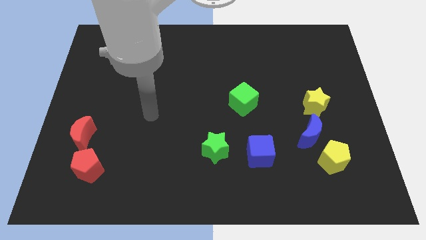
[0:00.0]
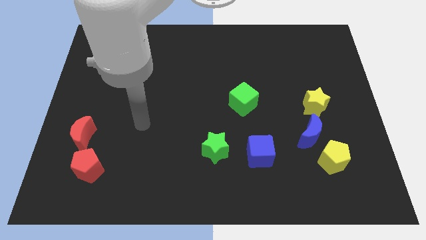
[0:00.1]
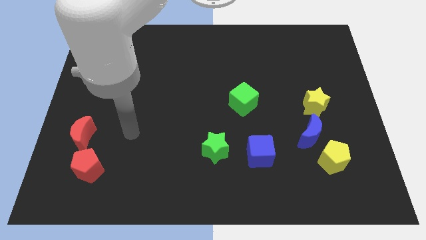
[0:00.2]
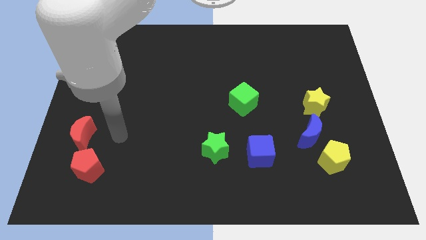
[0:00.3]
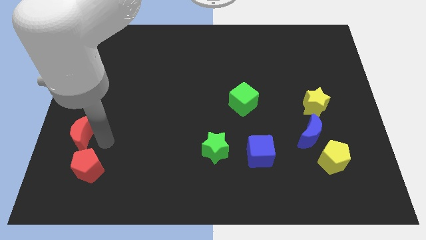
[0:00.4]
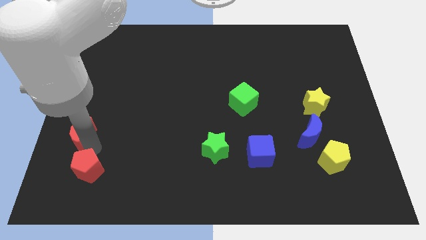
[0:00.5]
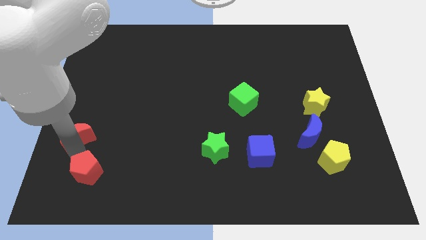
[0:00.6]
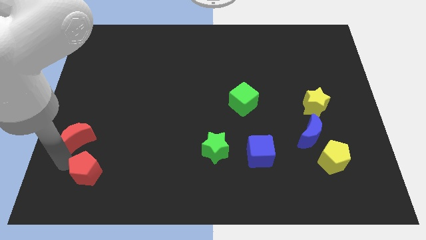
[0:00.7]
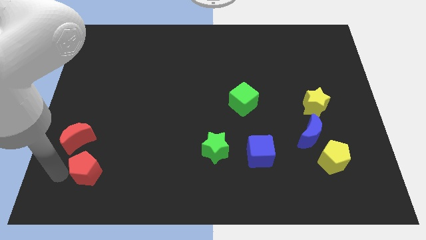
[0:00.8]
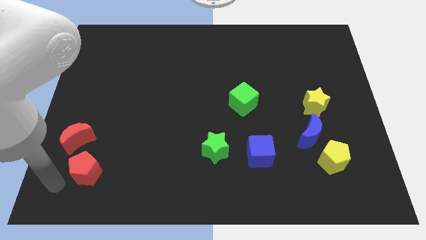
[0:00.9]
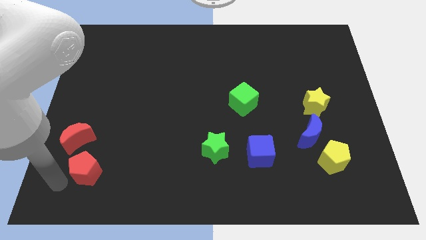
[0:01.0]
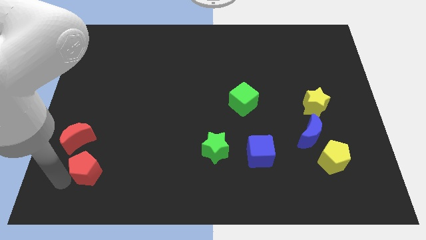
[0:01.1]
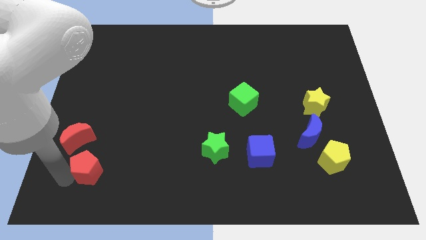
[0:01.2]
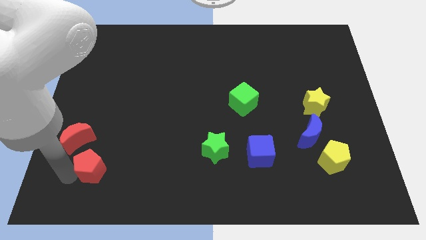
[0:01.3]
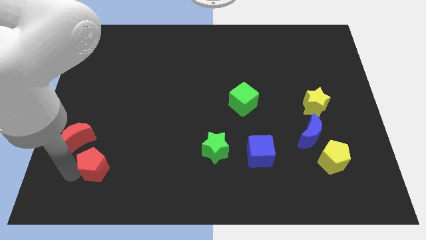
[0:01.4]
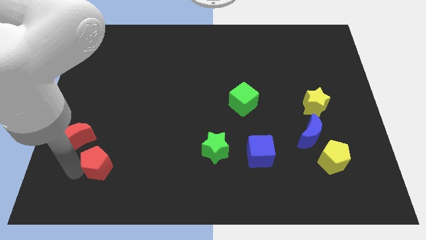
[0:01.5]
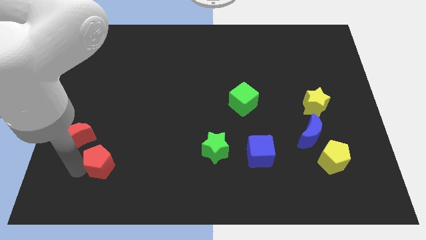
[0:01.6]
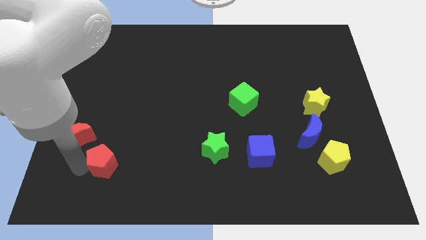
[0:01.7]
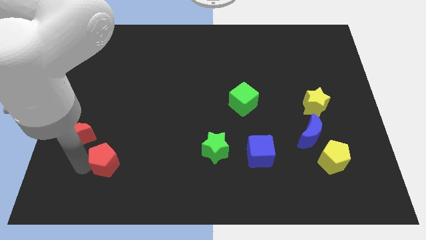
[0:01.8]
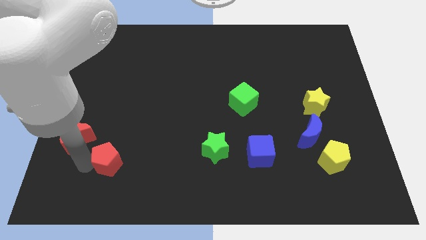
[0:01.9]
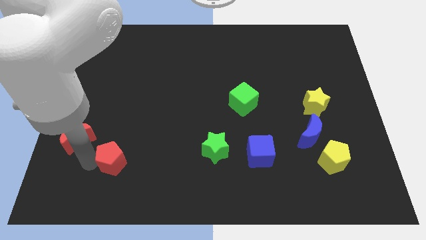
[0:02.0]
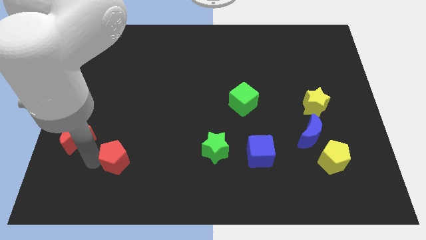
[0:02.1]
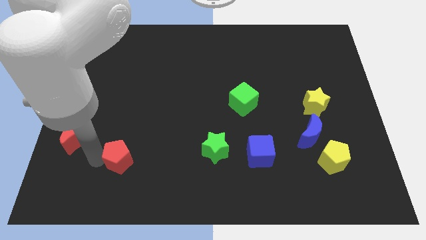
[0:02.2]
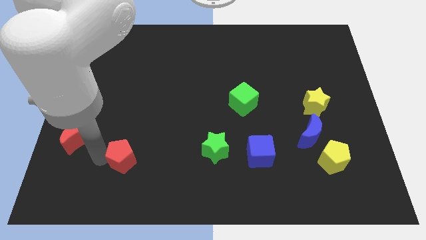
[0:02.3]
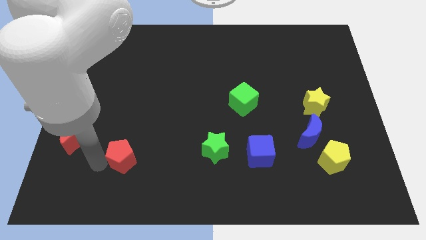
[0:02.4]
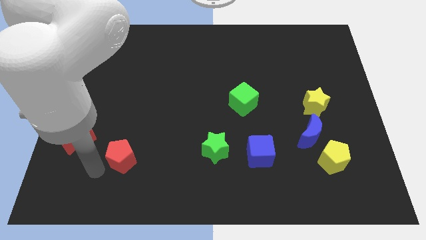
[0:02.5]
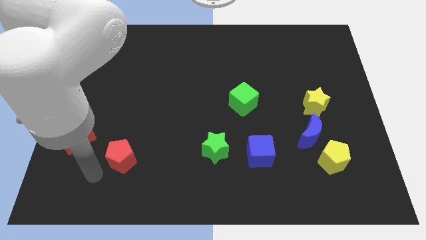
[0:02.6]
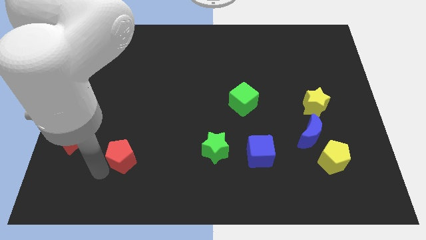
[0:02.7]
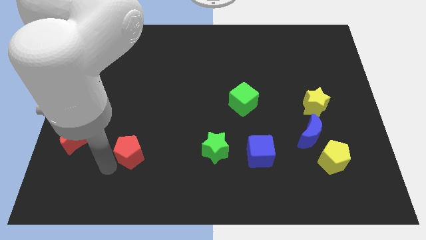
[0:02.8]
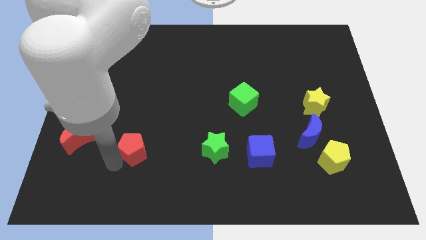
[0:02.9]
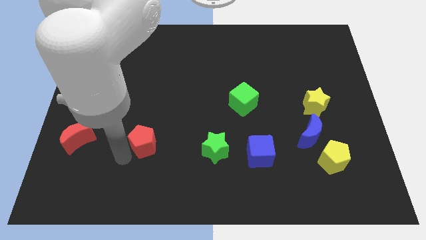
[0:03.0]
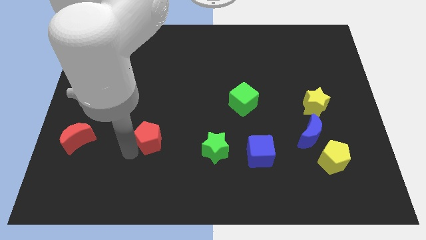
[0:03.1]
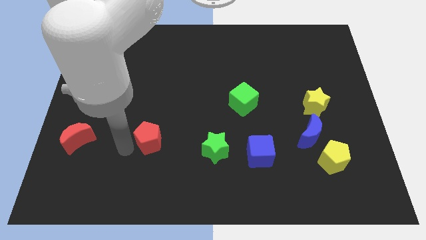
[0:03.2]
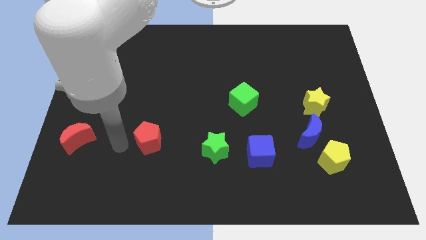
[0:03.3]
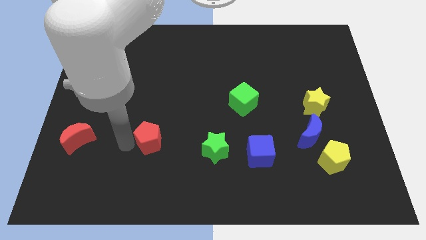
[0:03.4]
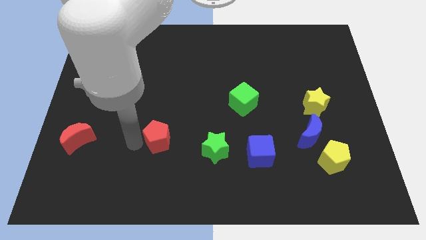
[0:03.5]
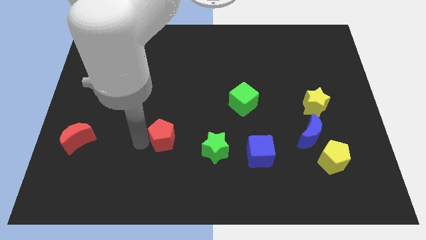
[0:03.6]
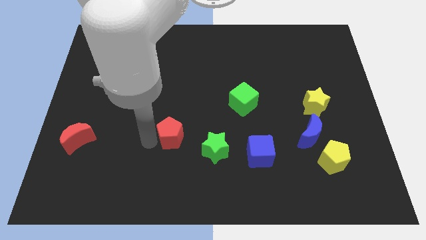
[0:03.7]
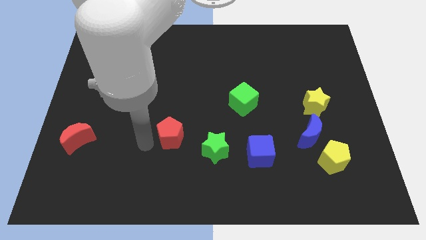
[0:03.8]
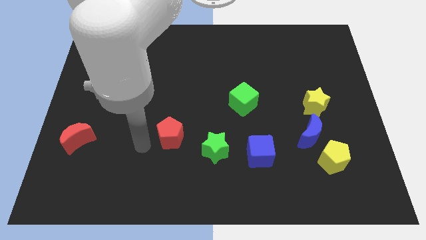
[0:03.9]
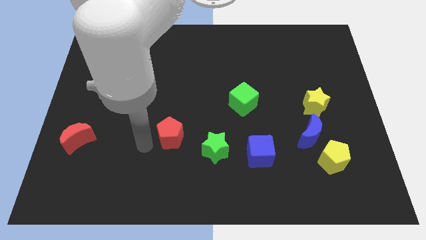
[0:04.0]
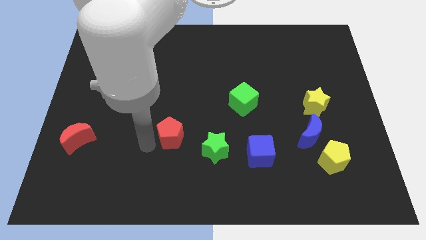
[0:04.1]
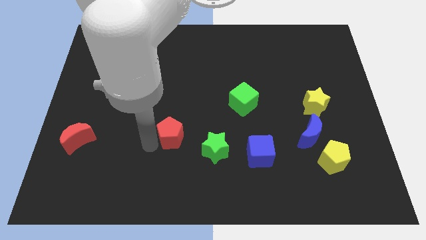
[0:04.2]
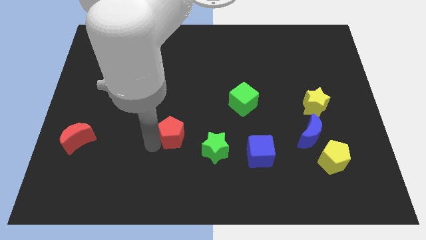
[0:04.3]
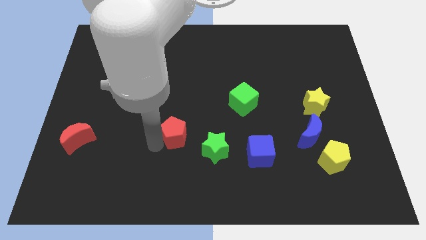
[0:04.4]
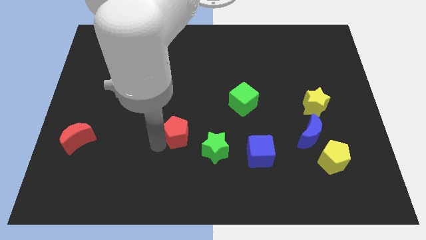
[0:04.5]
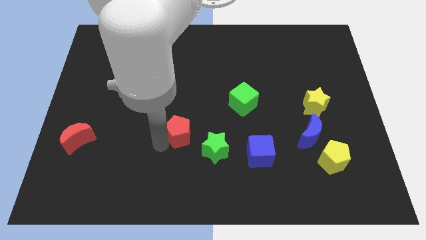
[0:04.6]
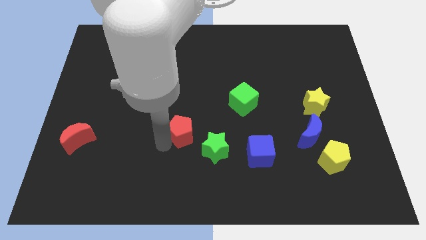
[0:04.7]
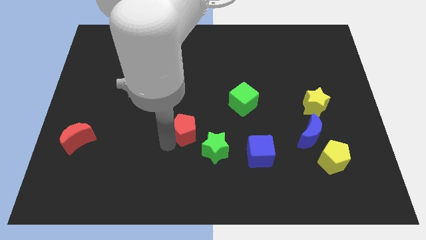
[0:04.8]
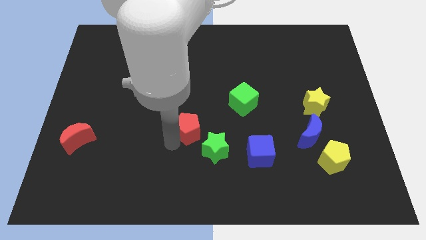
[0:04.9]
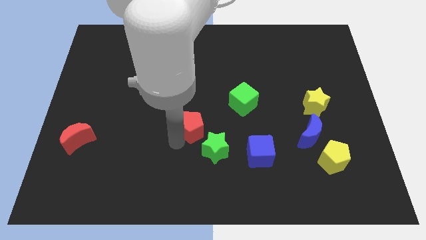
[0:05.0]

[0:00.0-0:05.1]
push the red pentagon above the green star

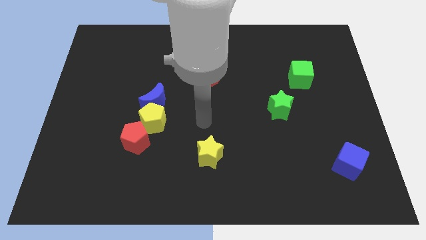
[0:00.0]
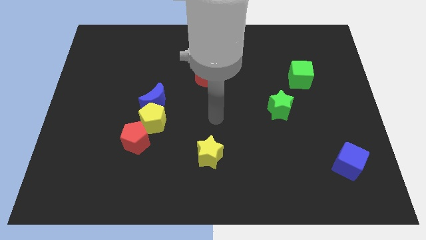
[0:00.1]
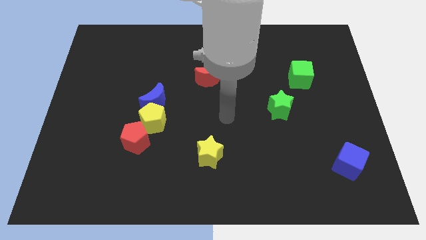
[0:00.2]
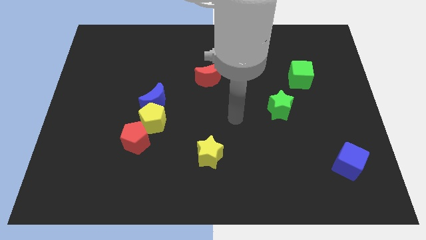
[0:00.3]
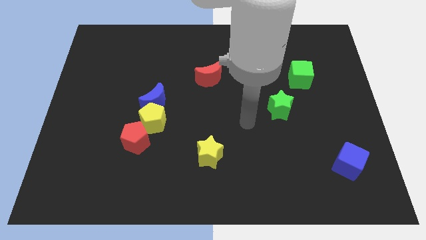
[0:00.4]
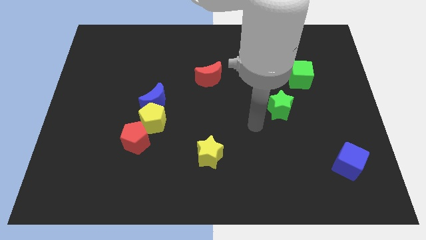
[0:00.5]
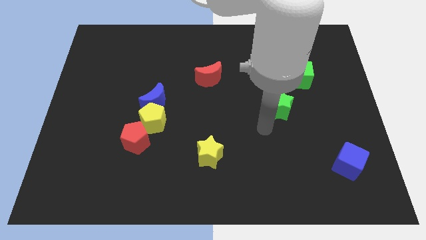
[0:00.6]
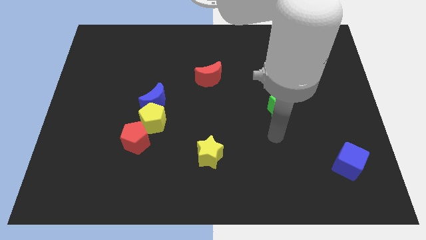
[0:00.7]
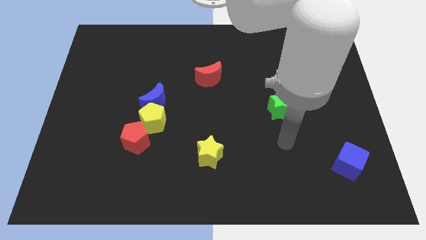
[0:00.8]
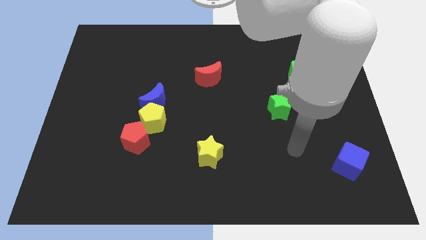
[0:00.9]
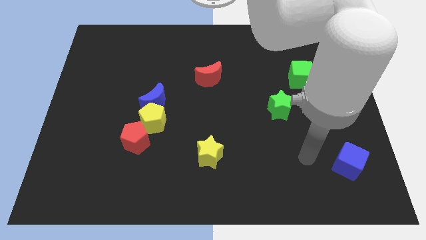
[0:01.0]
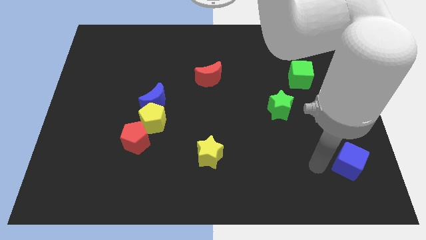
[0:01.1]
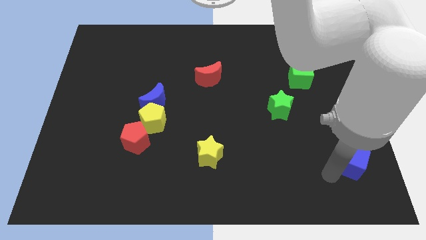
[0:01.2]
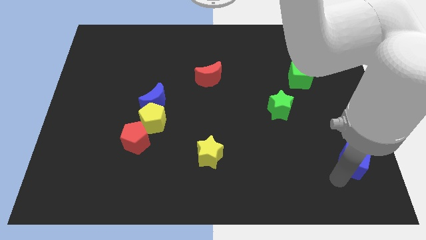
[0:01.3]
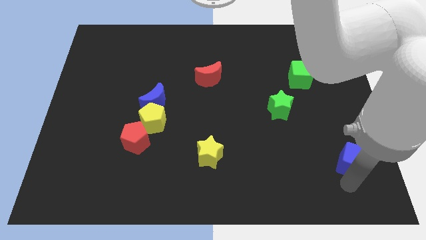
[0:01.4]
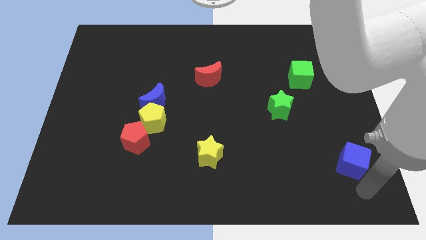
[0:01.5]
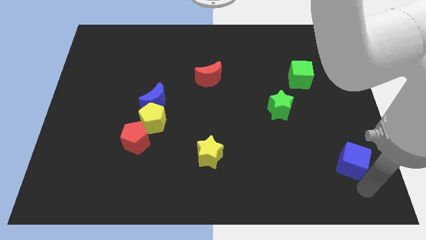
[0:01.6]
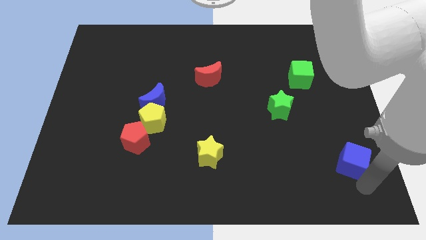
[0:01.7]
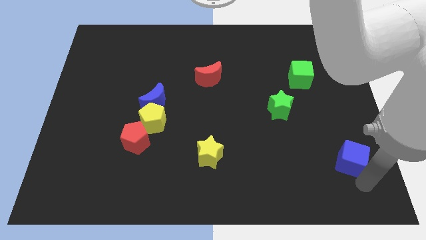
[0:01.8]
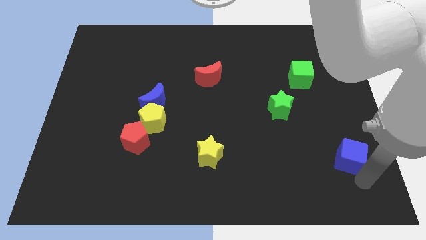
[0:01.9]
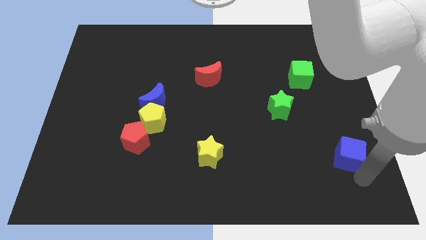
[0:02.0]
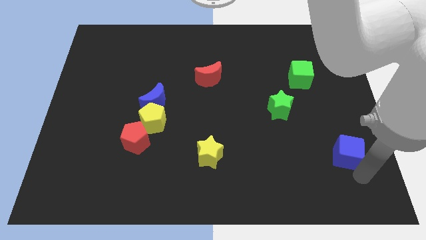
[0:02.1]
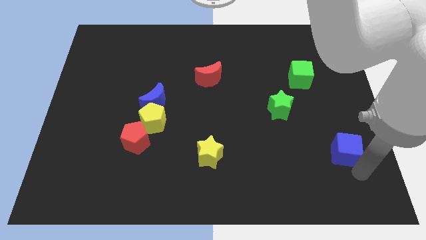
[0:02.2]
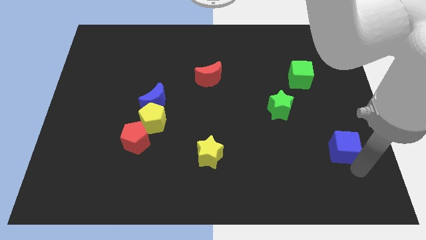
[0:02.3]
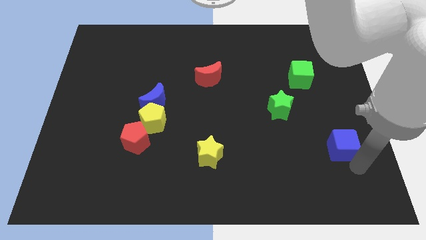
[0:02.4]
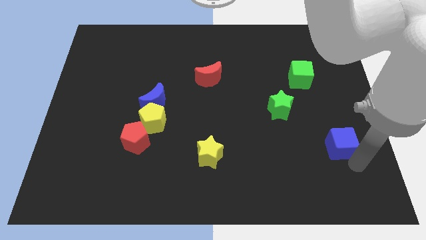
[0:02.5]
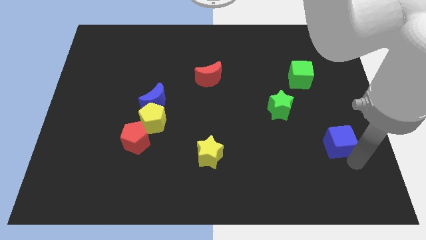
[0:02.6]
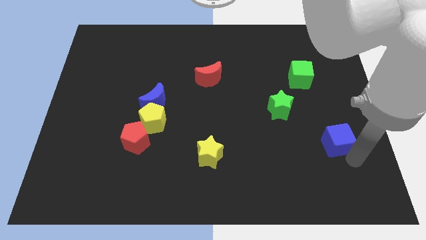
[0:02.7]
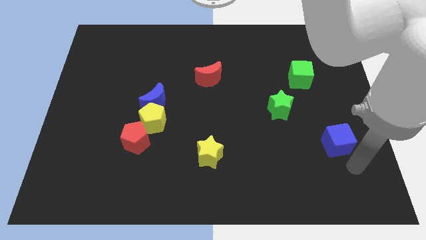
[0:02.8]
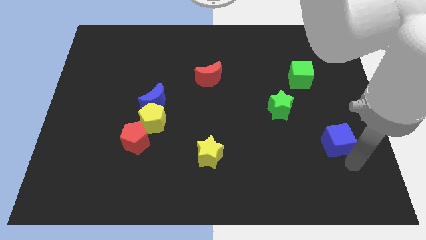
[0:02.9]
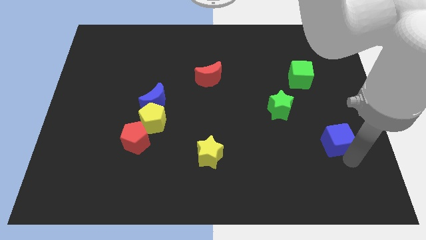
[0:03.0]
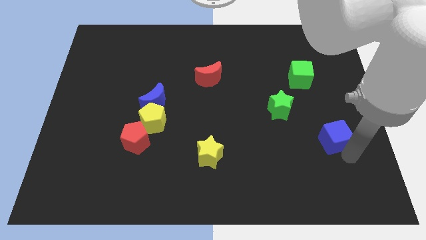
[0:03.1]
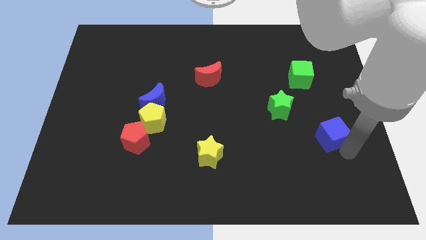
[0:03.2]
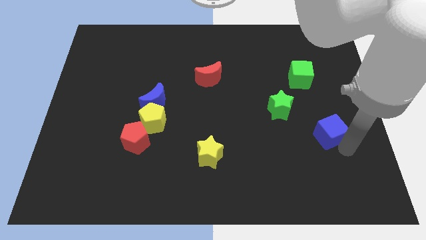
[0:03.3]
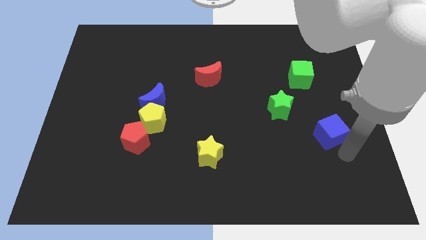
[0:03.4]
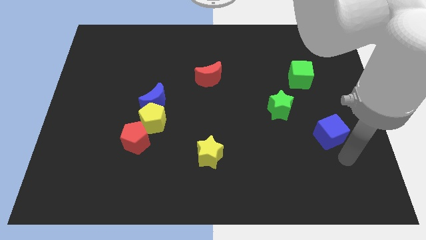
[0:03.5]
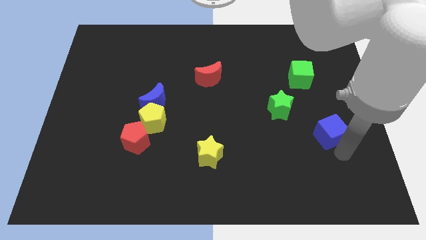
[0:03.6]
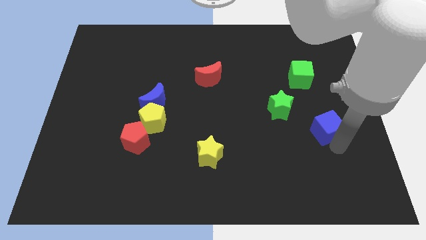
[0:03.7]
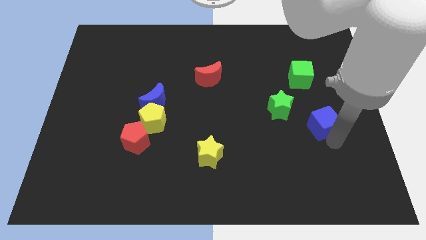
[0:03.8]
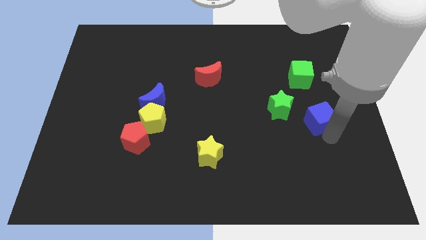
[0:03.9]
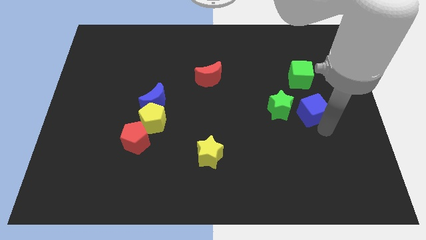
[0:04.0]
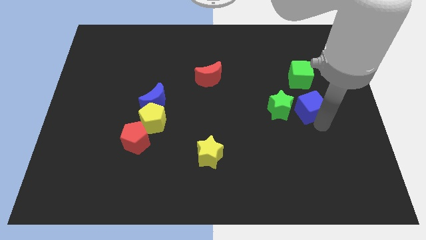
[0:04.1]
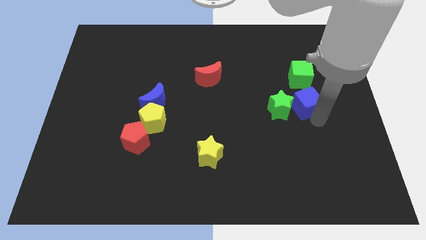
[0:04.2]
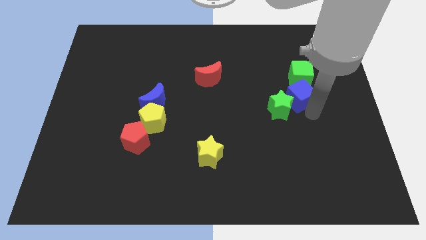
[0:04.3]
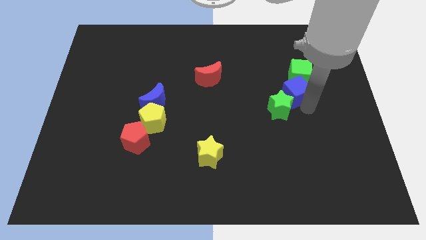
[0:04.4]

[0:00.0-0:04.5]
slide the blue cube to the top of the green star
